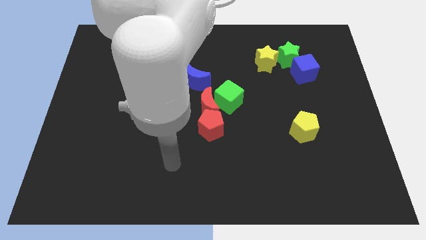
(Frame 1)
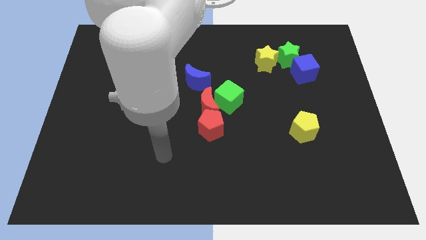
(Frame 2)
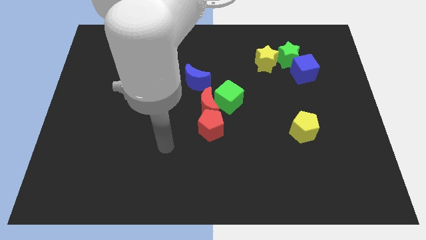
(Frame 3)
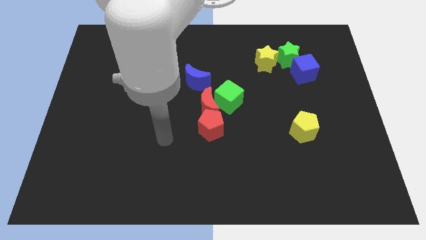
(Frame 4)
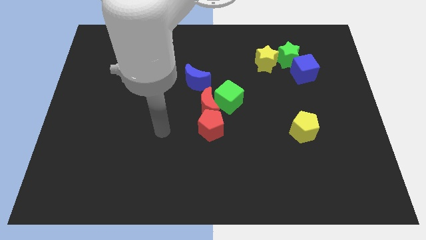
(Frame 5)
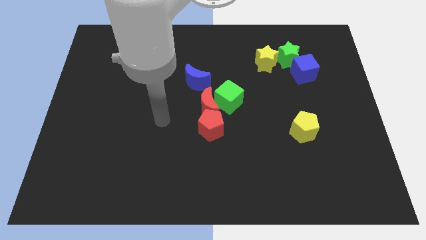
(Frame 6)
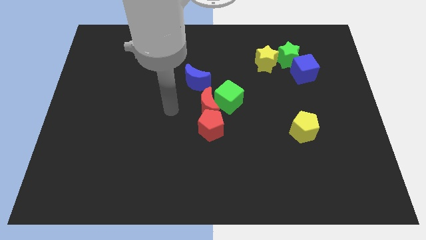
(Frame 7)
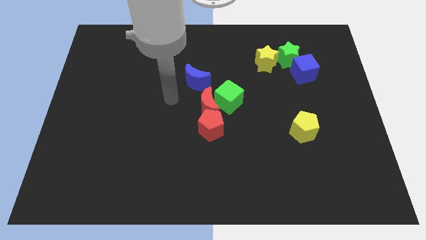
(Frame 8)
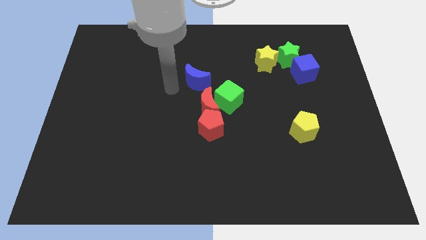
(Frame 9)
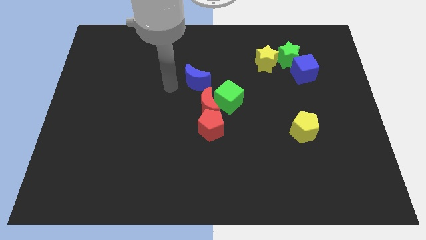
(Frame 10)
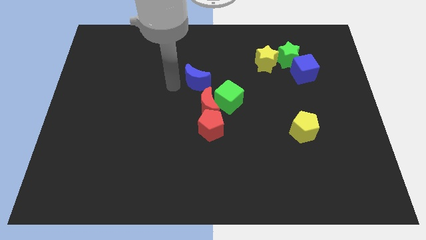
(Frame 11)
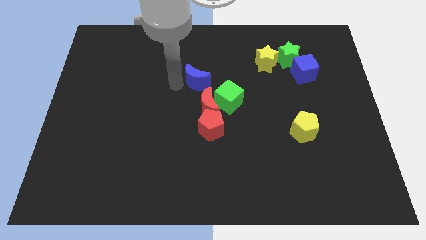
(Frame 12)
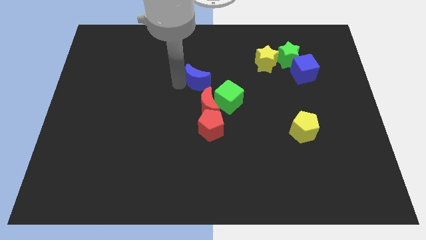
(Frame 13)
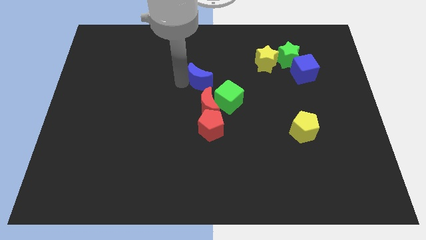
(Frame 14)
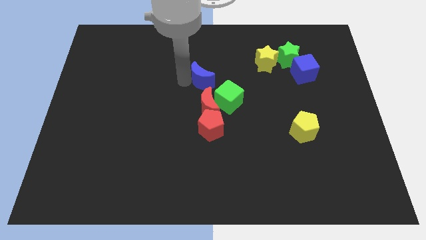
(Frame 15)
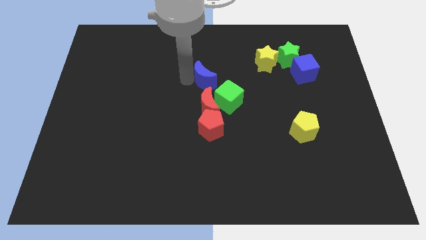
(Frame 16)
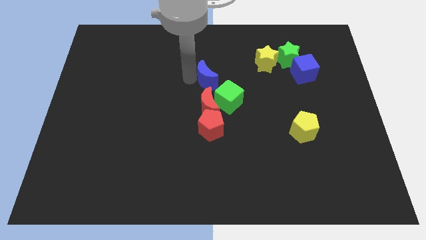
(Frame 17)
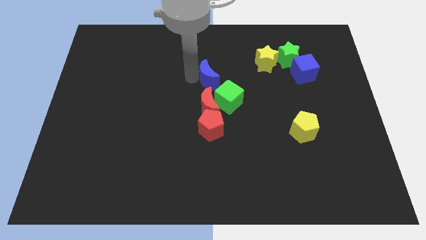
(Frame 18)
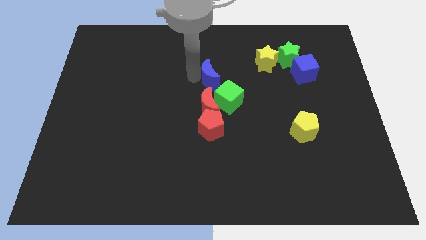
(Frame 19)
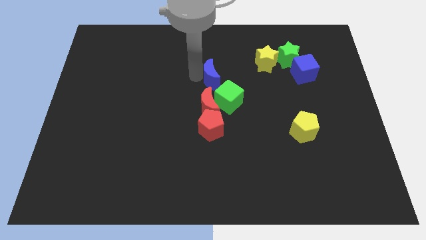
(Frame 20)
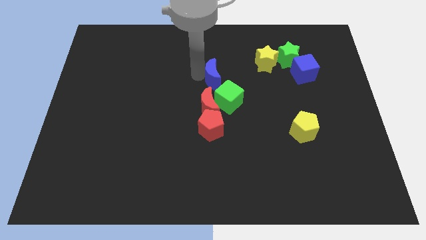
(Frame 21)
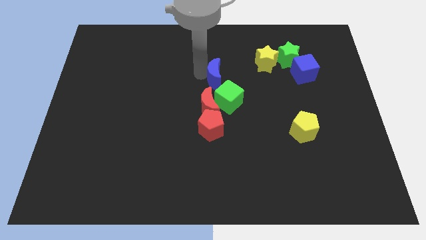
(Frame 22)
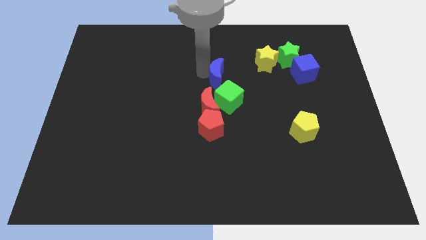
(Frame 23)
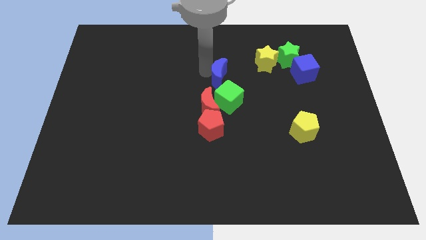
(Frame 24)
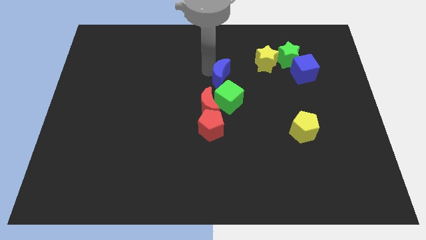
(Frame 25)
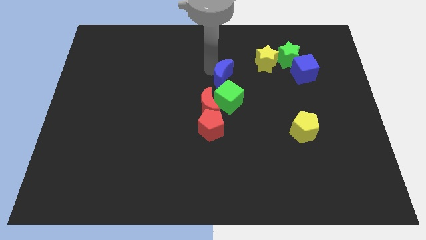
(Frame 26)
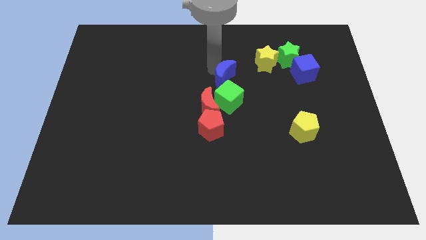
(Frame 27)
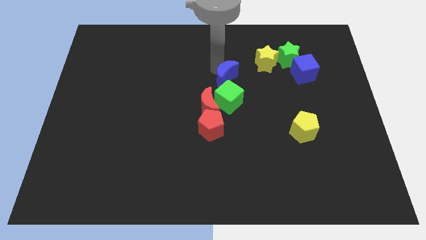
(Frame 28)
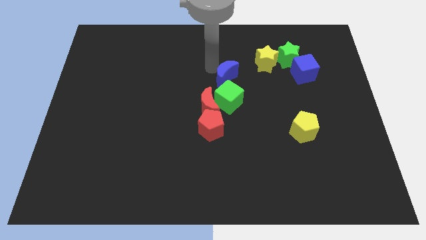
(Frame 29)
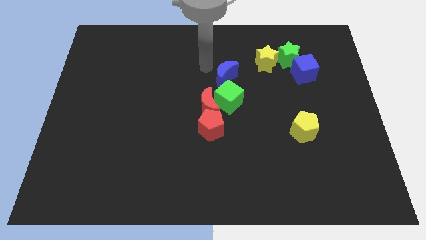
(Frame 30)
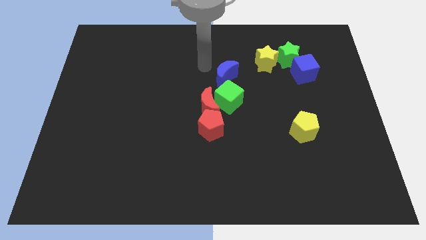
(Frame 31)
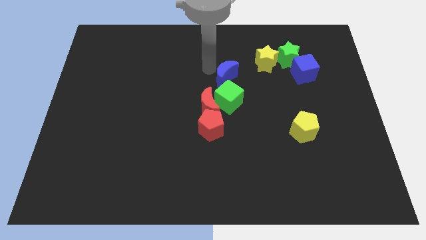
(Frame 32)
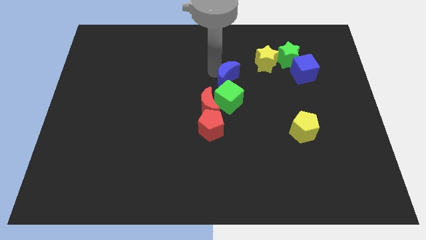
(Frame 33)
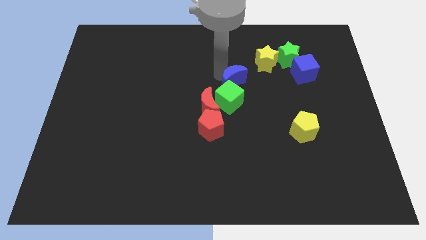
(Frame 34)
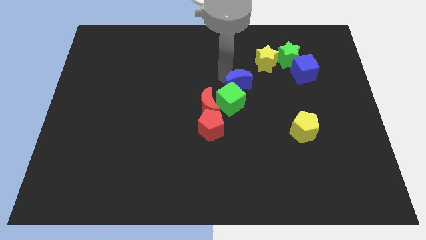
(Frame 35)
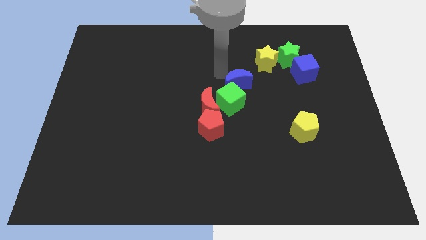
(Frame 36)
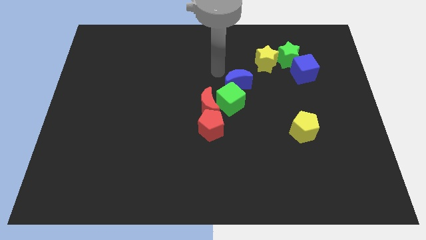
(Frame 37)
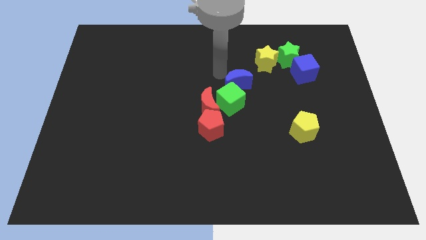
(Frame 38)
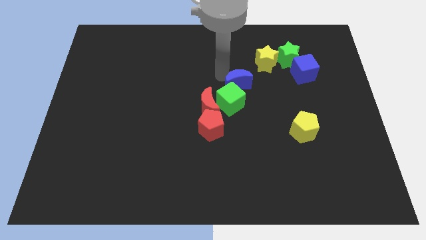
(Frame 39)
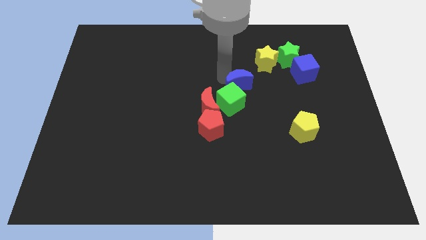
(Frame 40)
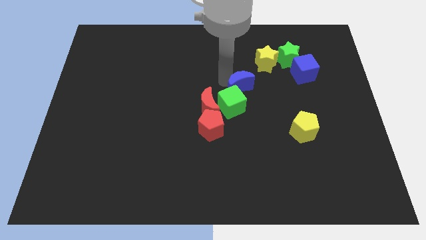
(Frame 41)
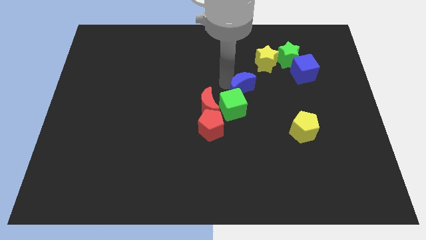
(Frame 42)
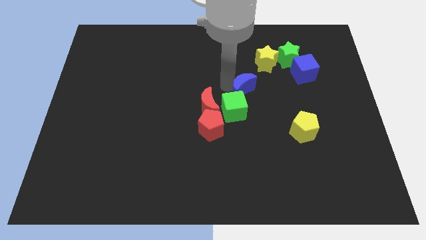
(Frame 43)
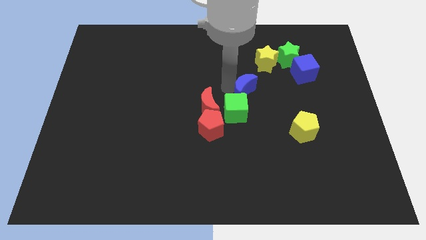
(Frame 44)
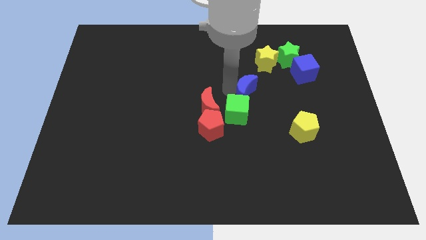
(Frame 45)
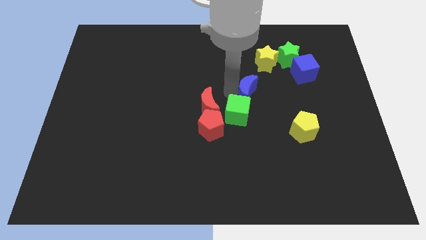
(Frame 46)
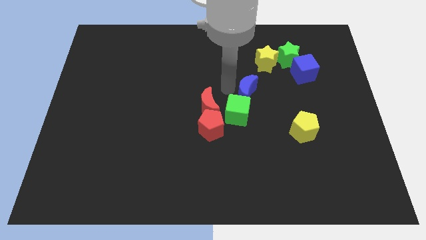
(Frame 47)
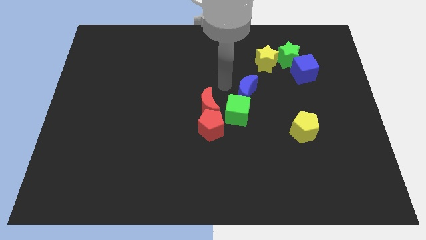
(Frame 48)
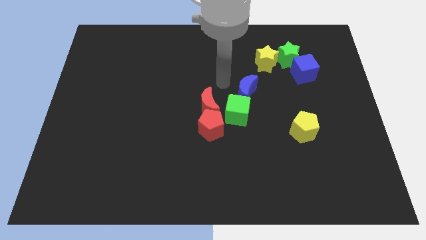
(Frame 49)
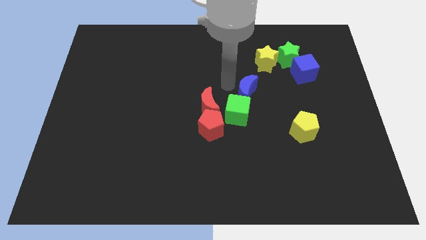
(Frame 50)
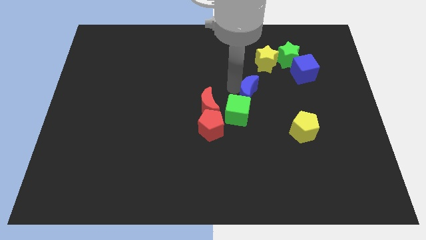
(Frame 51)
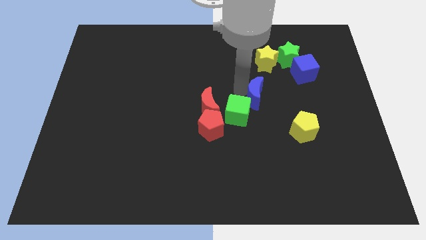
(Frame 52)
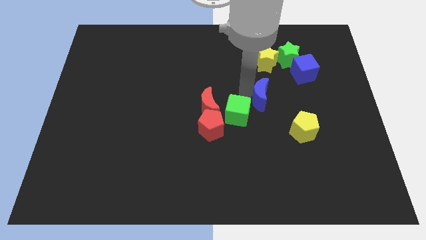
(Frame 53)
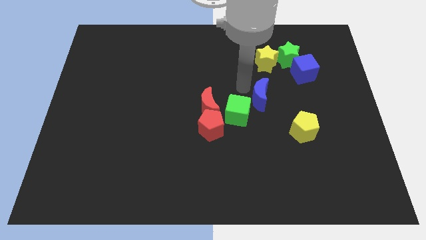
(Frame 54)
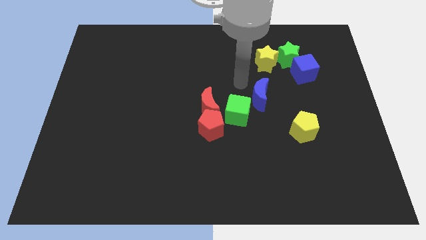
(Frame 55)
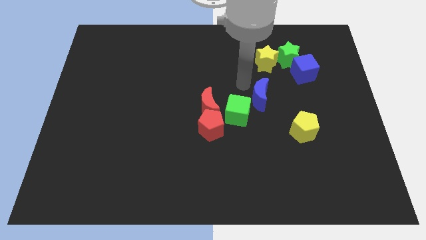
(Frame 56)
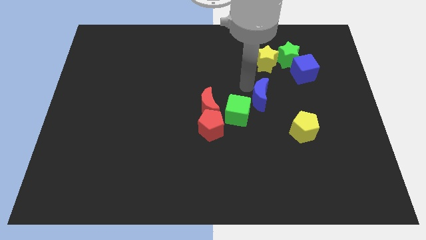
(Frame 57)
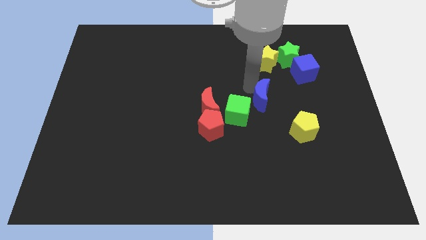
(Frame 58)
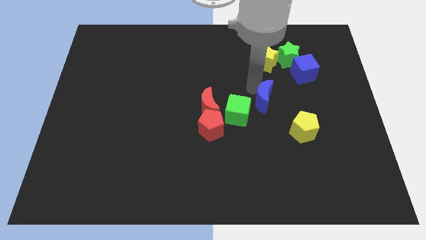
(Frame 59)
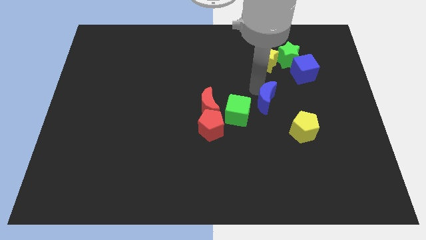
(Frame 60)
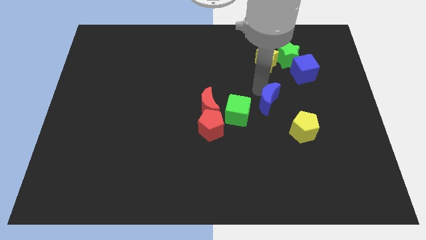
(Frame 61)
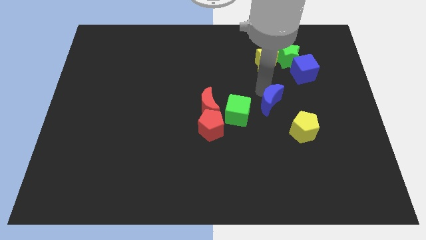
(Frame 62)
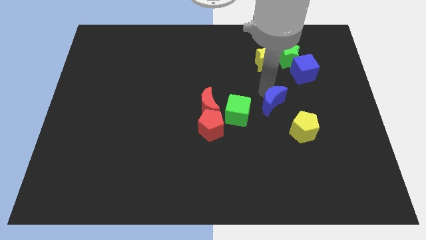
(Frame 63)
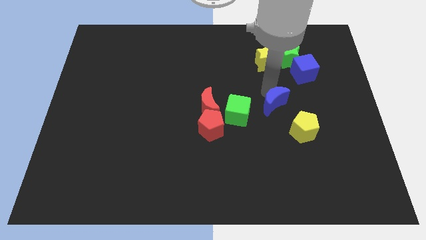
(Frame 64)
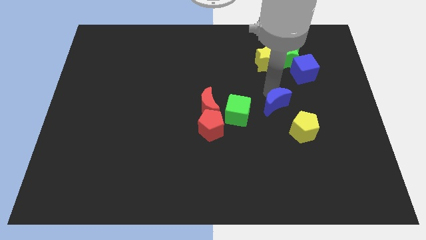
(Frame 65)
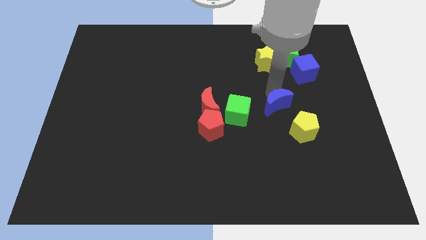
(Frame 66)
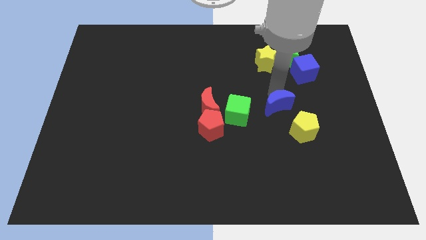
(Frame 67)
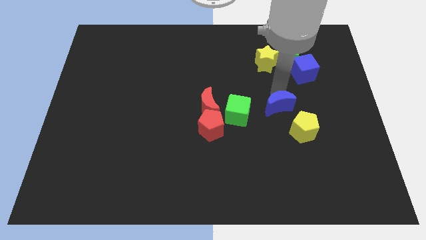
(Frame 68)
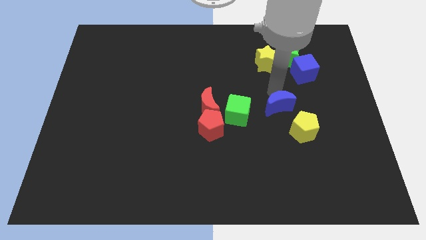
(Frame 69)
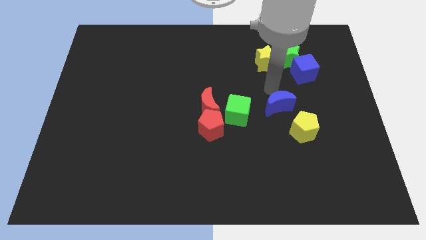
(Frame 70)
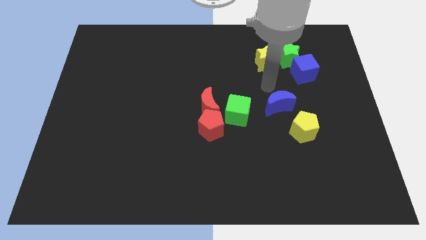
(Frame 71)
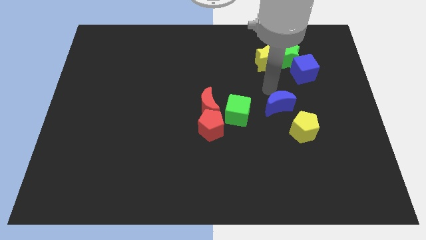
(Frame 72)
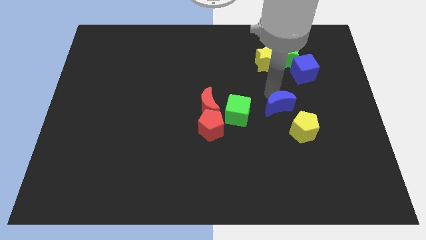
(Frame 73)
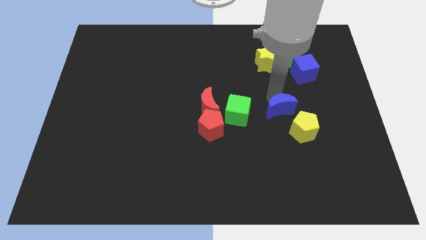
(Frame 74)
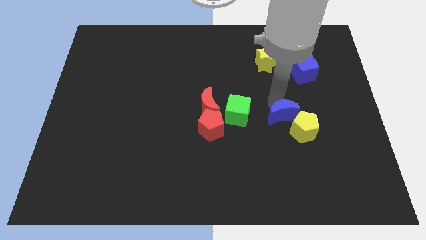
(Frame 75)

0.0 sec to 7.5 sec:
slide the blue moon towards the yellow pentagon
